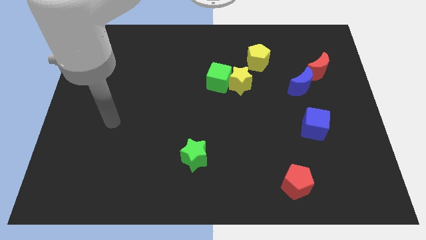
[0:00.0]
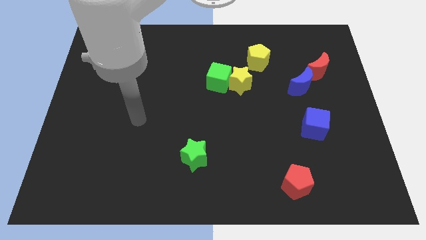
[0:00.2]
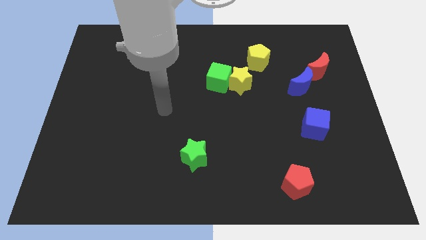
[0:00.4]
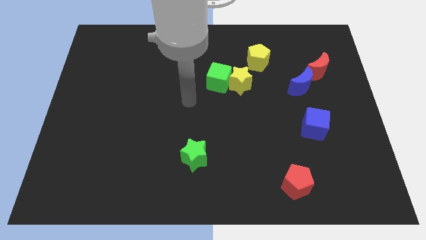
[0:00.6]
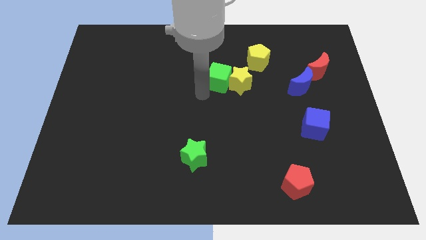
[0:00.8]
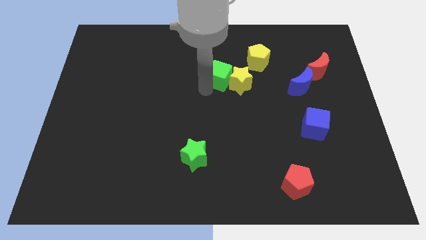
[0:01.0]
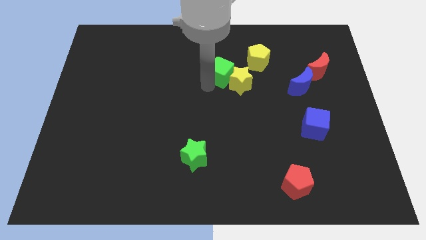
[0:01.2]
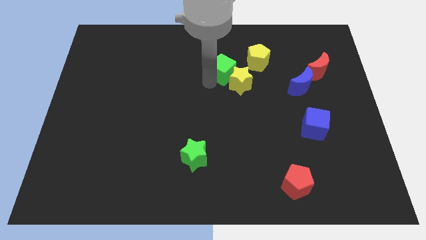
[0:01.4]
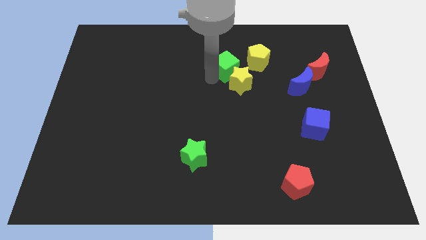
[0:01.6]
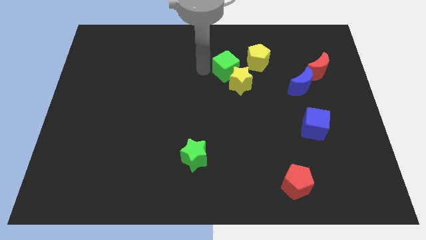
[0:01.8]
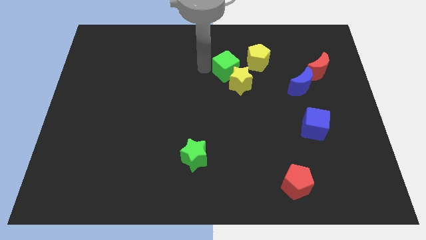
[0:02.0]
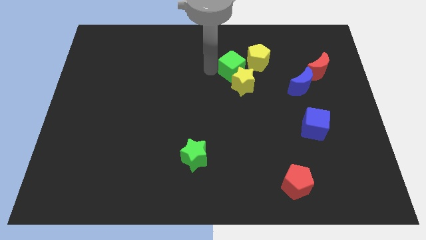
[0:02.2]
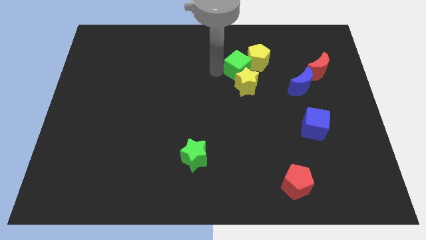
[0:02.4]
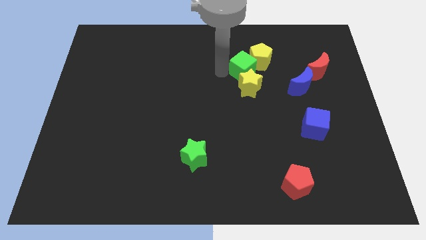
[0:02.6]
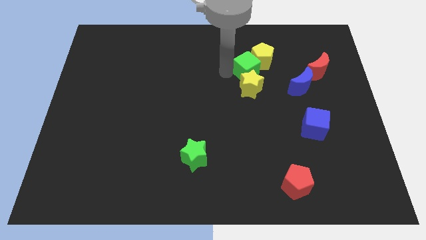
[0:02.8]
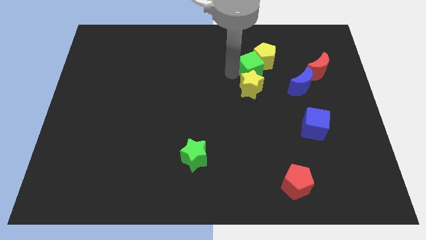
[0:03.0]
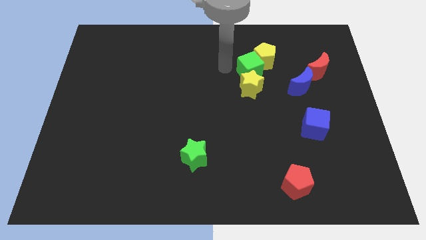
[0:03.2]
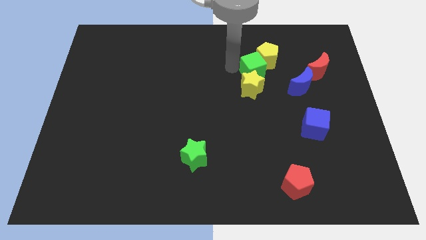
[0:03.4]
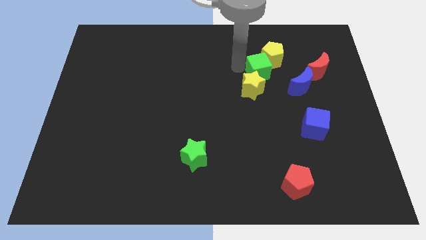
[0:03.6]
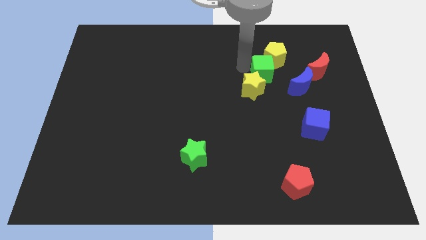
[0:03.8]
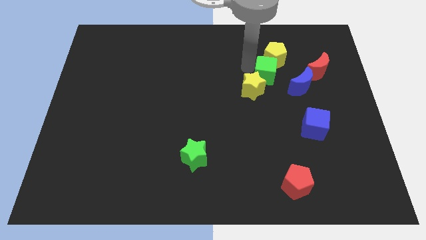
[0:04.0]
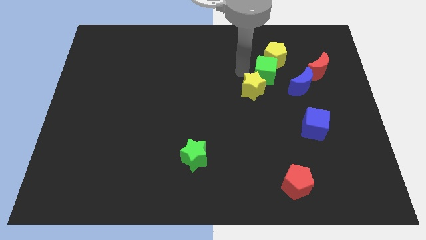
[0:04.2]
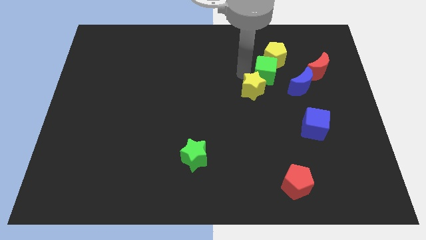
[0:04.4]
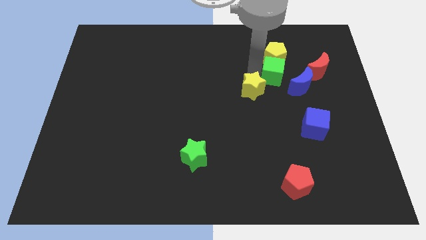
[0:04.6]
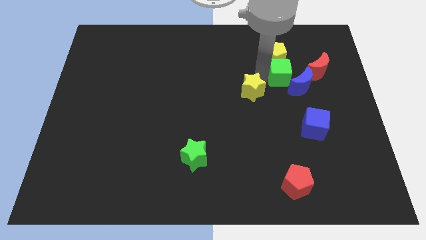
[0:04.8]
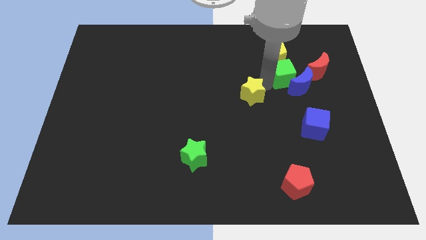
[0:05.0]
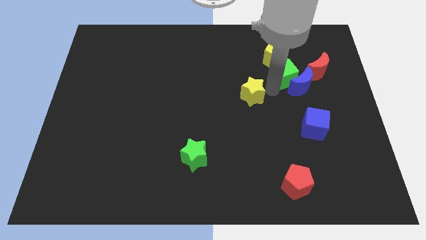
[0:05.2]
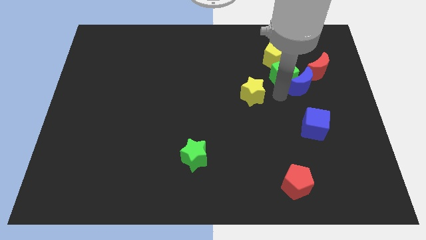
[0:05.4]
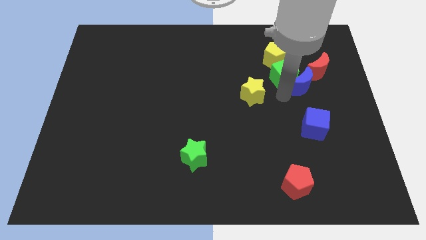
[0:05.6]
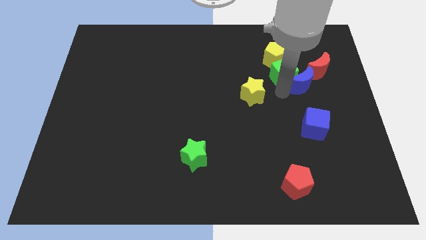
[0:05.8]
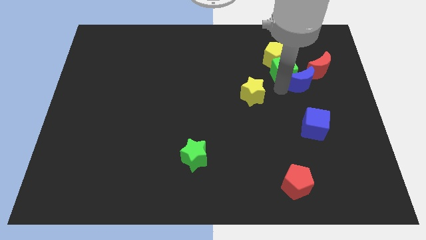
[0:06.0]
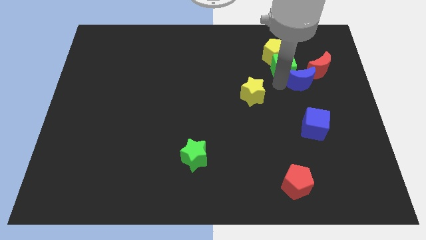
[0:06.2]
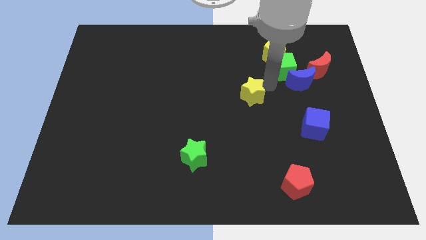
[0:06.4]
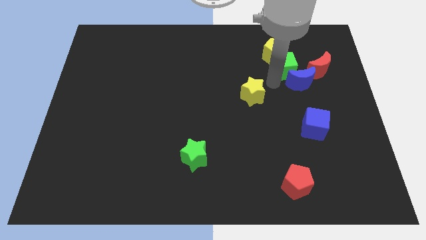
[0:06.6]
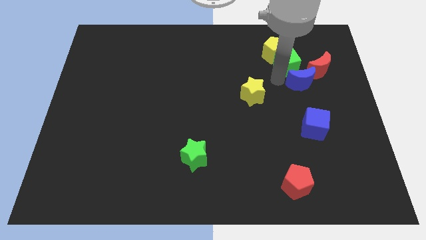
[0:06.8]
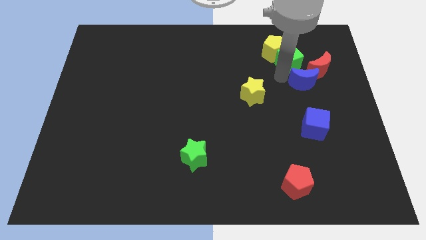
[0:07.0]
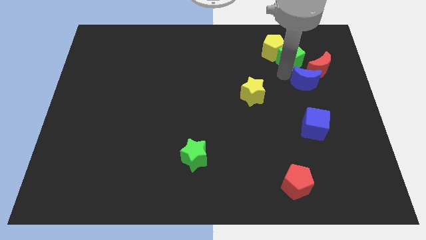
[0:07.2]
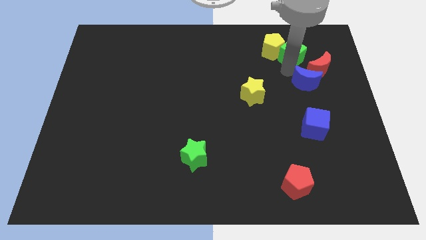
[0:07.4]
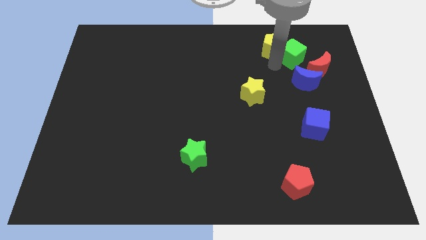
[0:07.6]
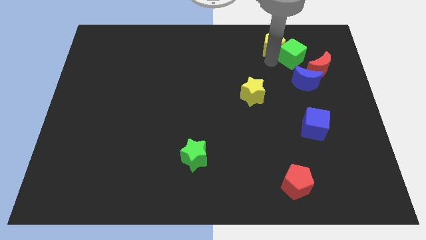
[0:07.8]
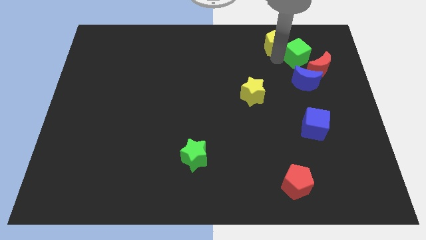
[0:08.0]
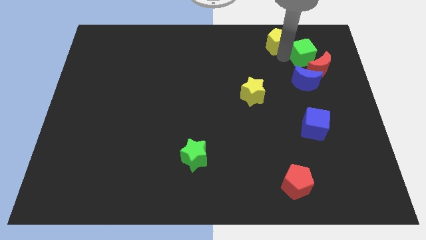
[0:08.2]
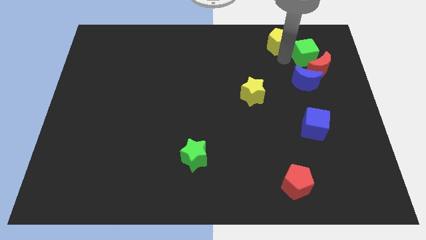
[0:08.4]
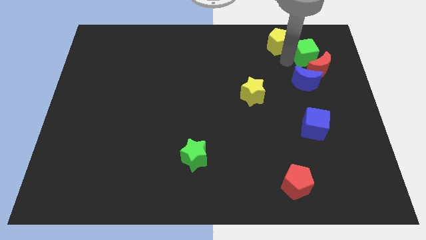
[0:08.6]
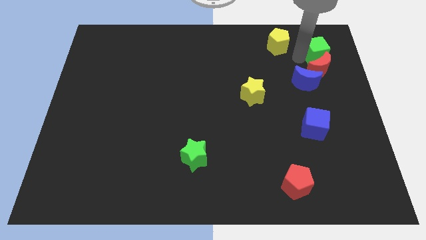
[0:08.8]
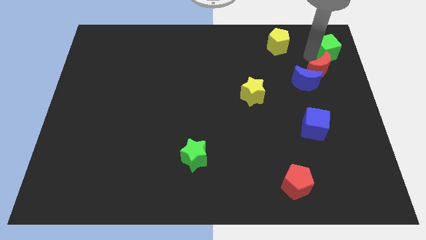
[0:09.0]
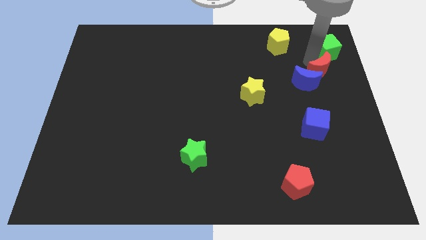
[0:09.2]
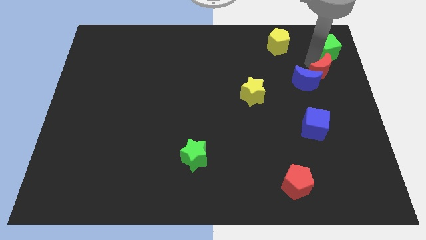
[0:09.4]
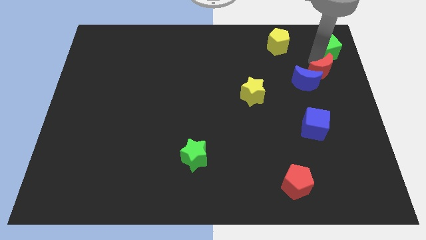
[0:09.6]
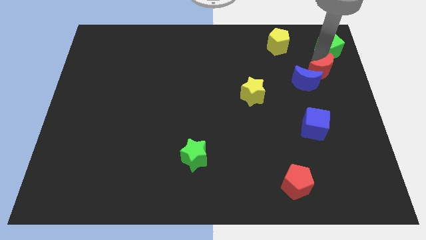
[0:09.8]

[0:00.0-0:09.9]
slide the green cube to the upper right corner

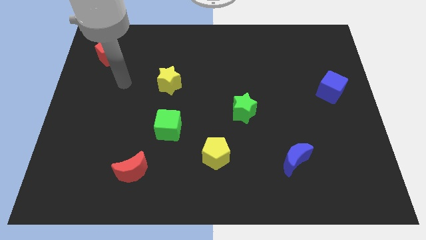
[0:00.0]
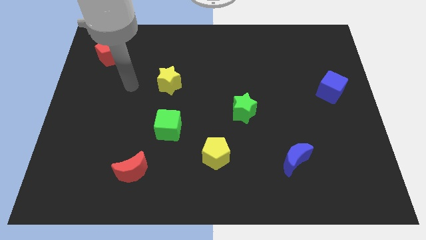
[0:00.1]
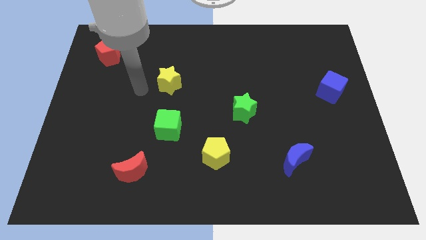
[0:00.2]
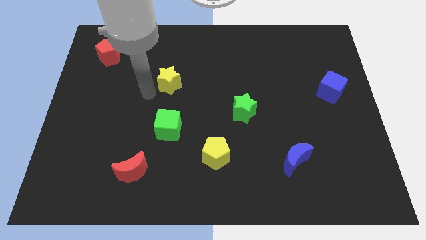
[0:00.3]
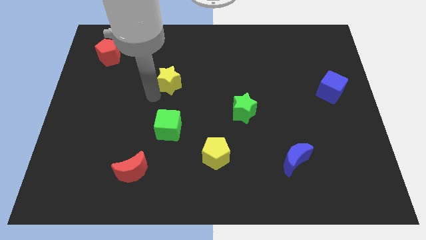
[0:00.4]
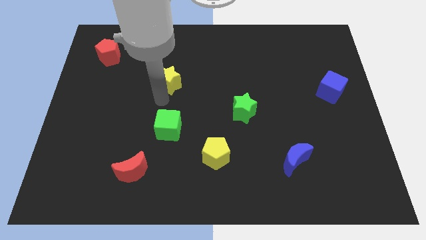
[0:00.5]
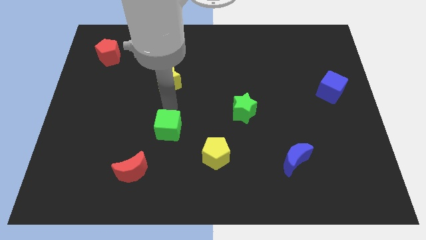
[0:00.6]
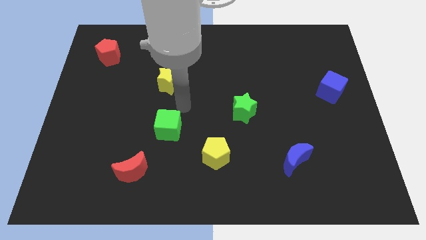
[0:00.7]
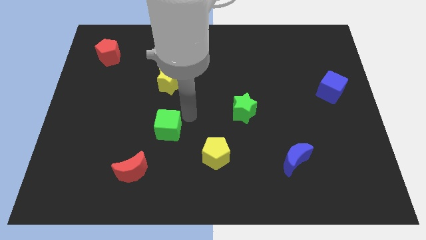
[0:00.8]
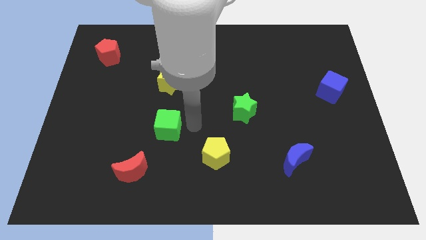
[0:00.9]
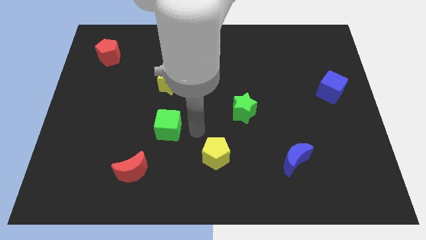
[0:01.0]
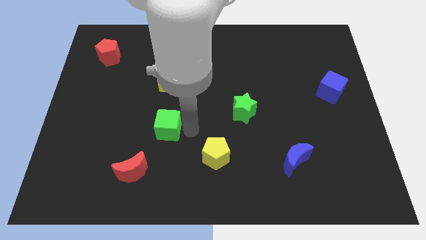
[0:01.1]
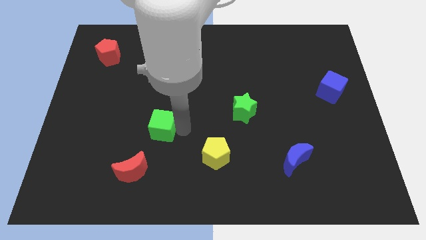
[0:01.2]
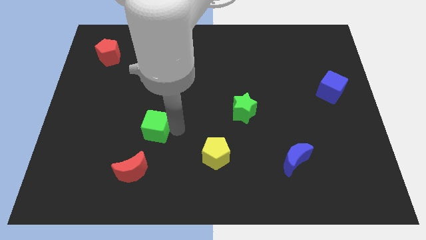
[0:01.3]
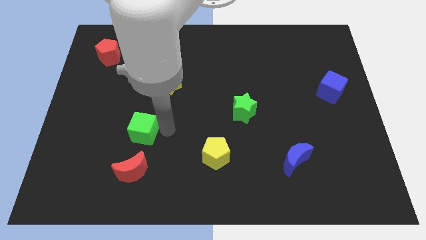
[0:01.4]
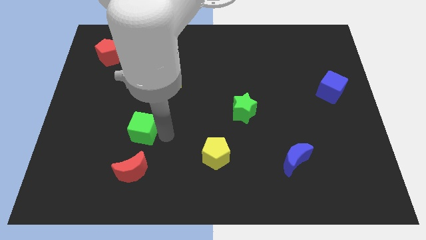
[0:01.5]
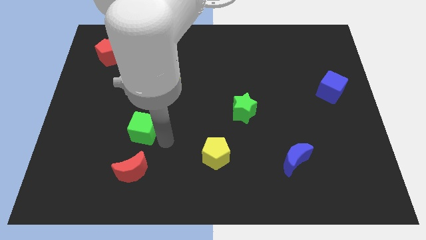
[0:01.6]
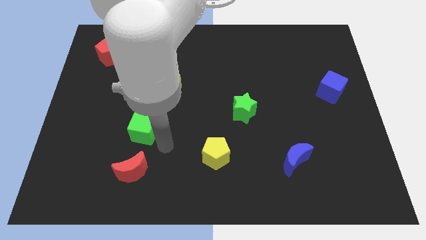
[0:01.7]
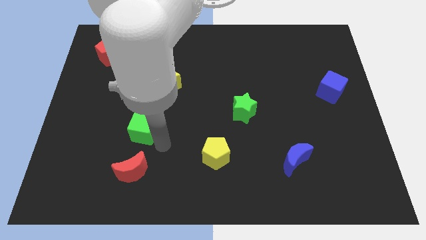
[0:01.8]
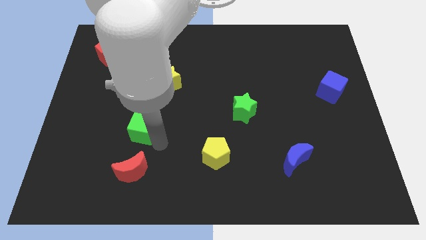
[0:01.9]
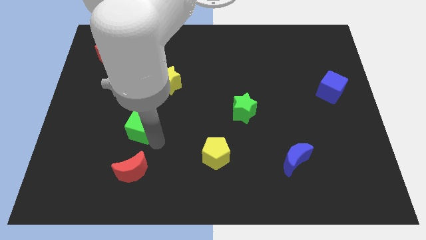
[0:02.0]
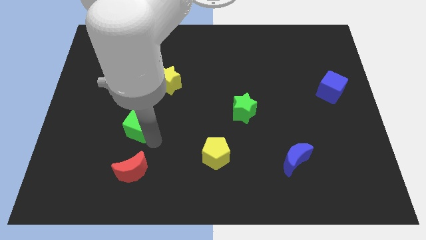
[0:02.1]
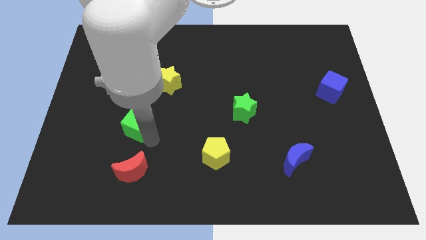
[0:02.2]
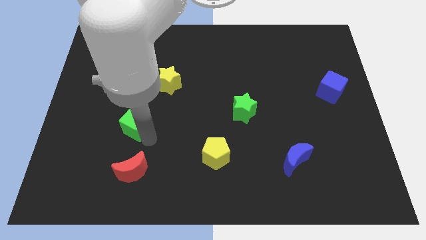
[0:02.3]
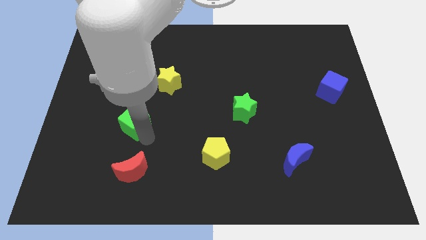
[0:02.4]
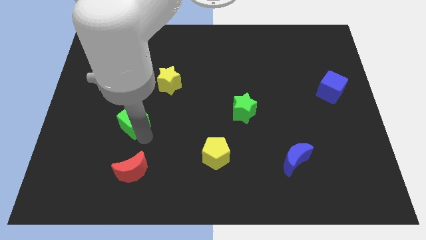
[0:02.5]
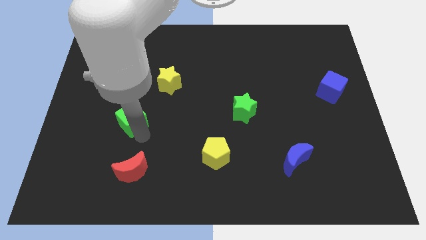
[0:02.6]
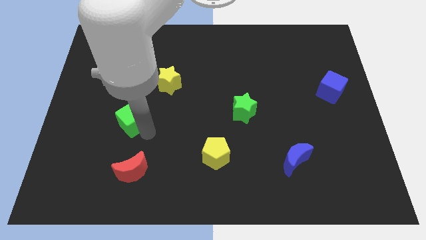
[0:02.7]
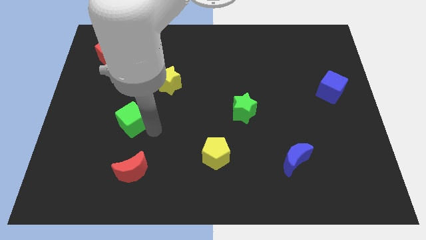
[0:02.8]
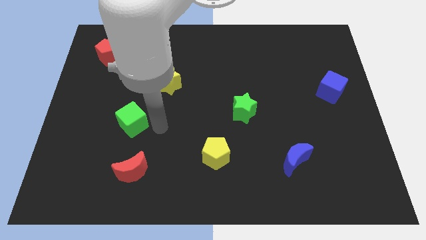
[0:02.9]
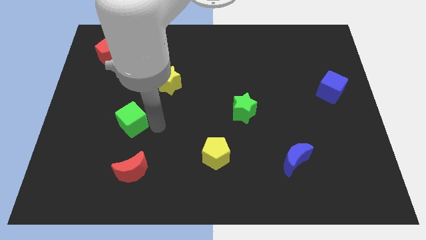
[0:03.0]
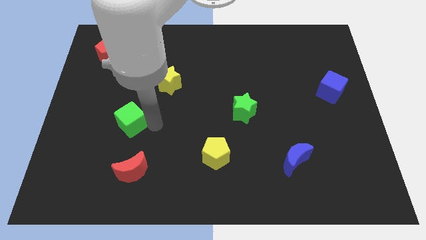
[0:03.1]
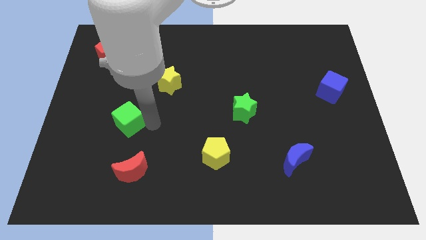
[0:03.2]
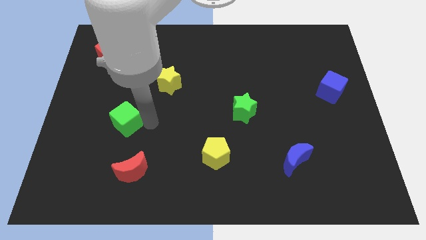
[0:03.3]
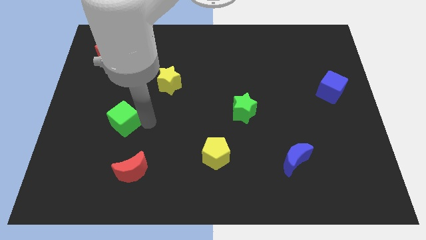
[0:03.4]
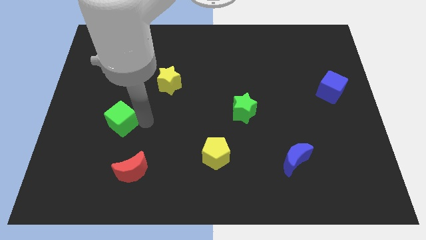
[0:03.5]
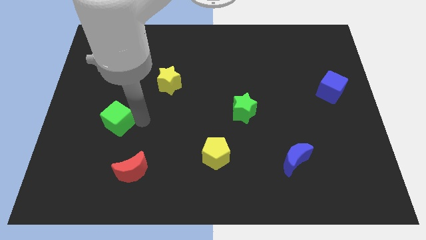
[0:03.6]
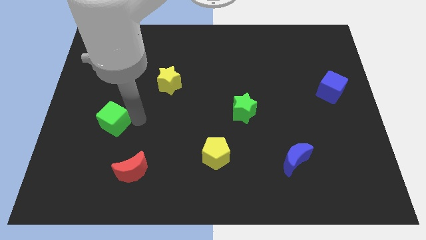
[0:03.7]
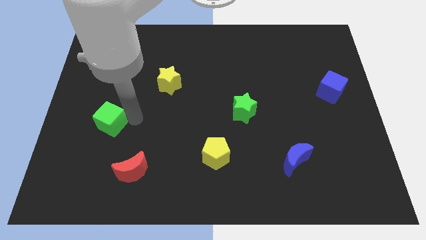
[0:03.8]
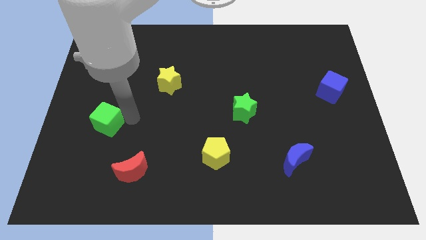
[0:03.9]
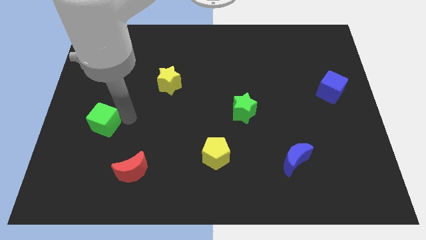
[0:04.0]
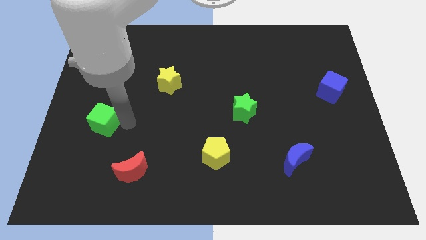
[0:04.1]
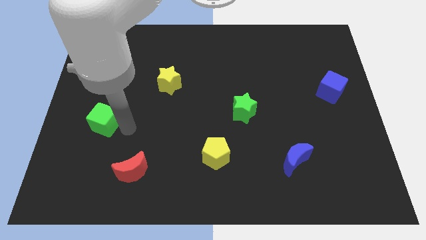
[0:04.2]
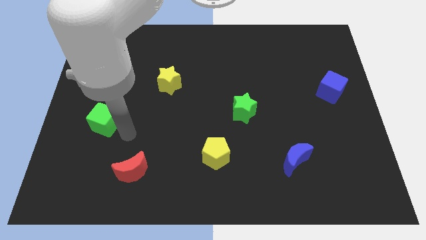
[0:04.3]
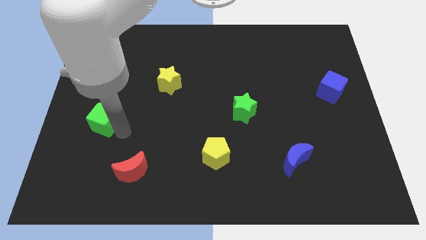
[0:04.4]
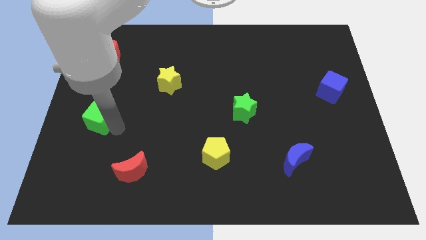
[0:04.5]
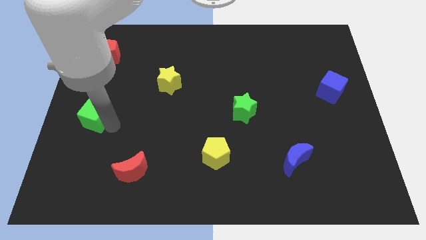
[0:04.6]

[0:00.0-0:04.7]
push the green cube to the left side of the board
